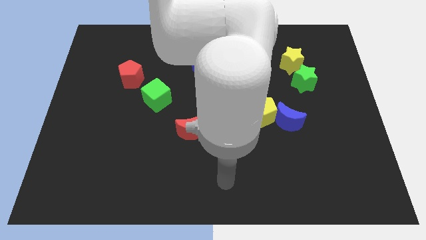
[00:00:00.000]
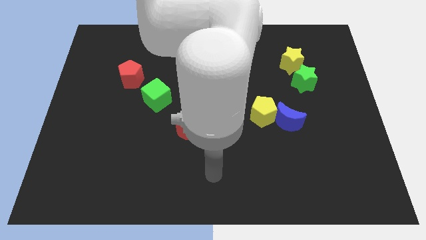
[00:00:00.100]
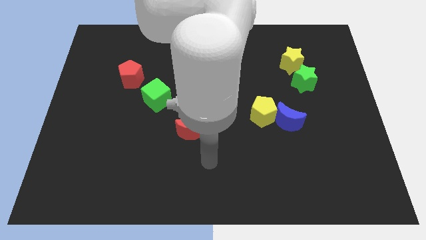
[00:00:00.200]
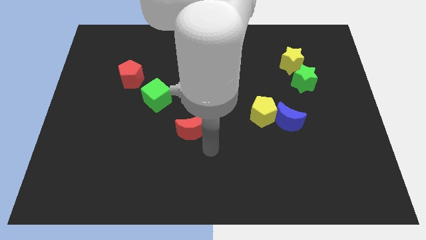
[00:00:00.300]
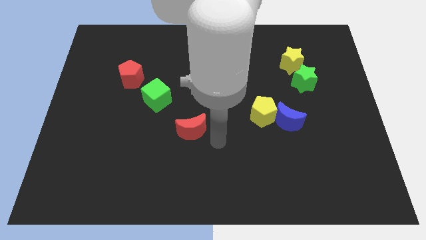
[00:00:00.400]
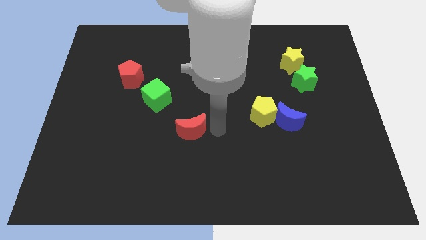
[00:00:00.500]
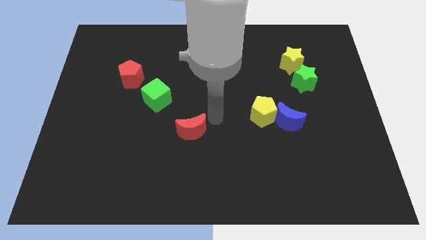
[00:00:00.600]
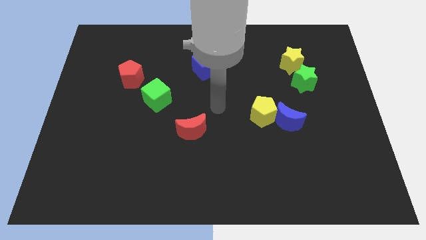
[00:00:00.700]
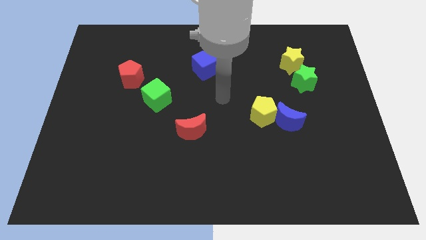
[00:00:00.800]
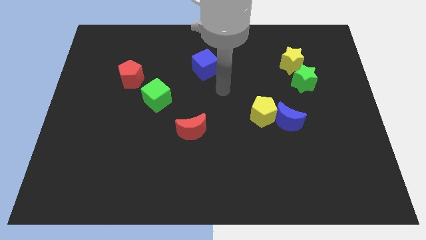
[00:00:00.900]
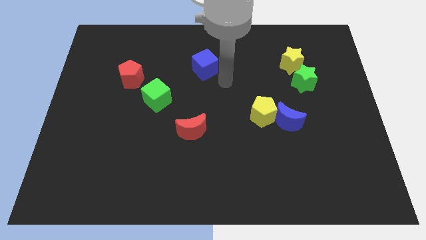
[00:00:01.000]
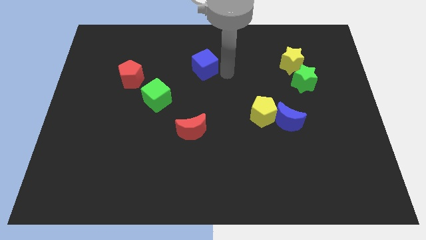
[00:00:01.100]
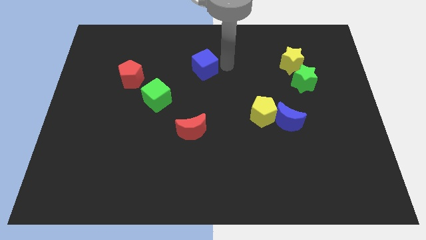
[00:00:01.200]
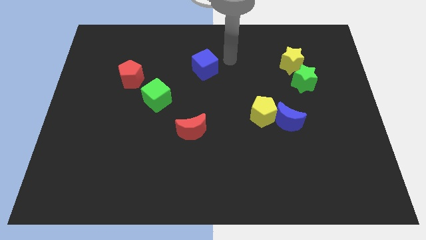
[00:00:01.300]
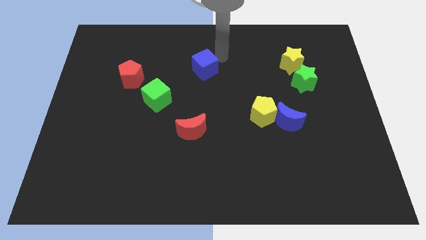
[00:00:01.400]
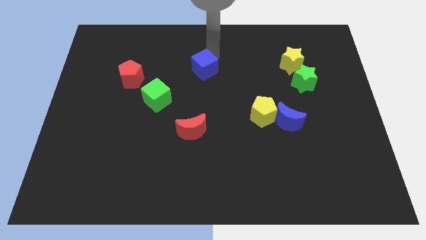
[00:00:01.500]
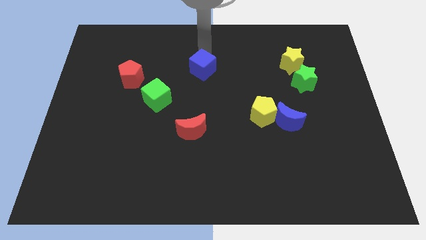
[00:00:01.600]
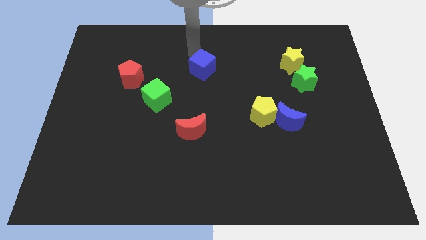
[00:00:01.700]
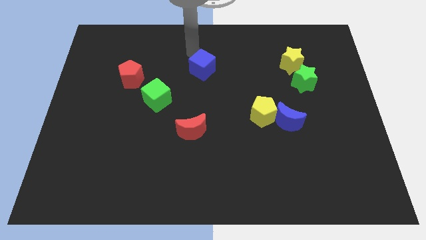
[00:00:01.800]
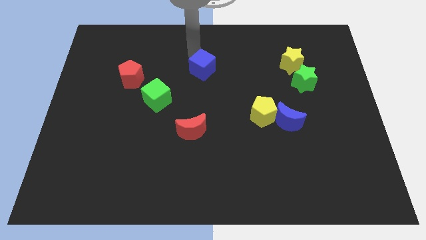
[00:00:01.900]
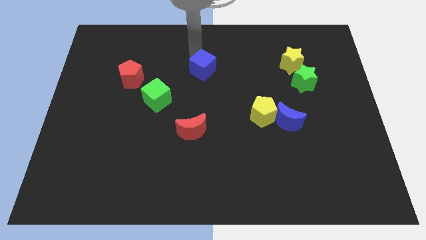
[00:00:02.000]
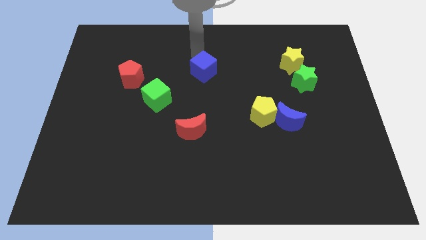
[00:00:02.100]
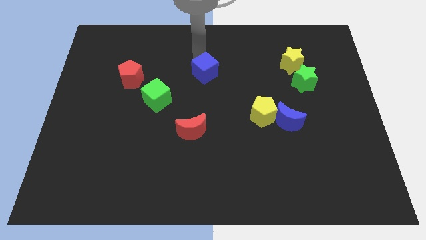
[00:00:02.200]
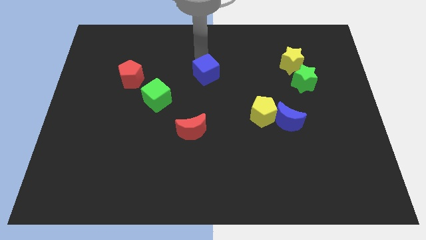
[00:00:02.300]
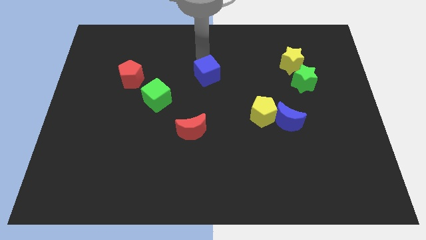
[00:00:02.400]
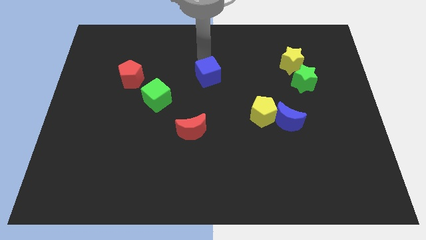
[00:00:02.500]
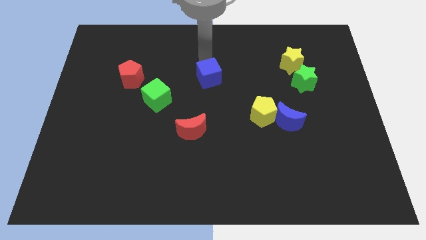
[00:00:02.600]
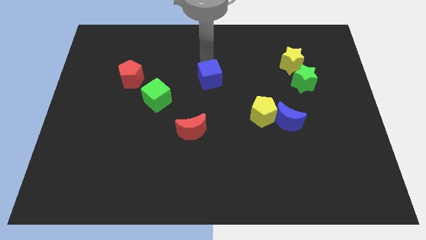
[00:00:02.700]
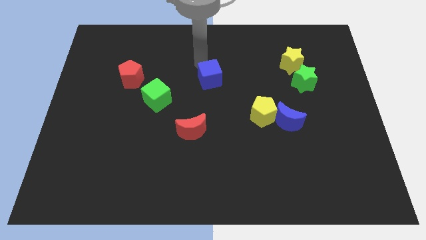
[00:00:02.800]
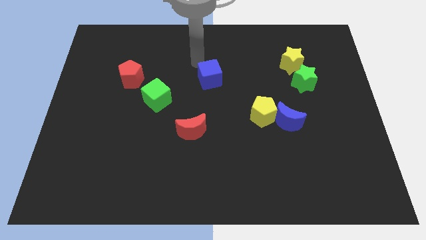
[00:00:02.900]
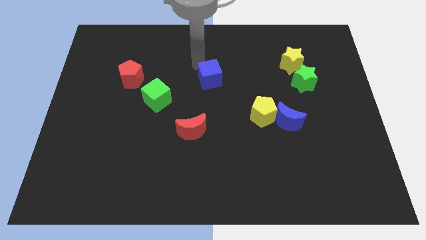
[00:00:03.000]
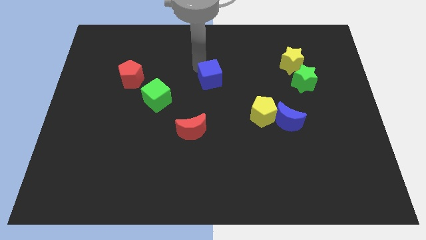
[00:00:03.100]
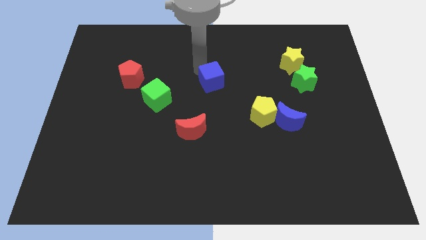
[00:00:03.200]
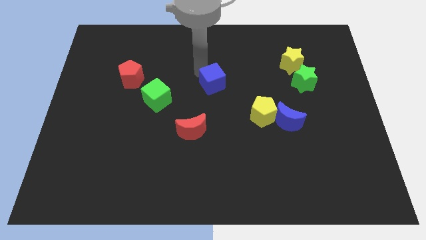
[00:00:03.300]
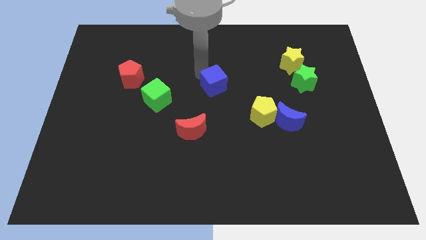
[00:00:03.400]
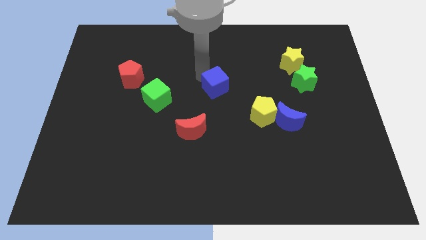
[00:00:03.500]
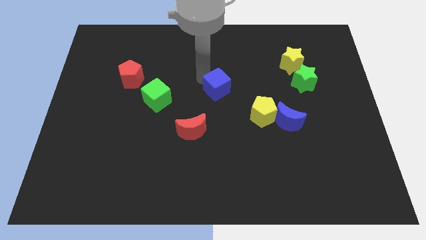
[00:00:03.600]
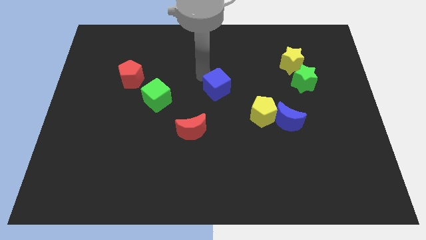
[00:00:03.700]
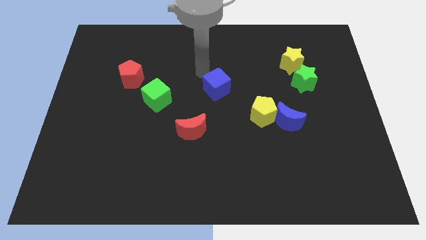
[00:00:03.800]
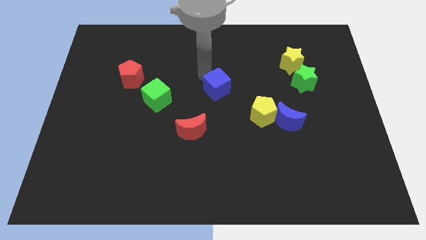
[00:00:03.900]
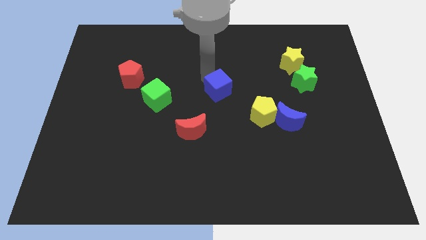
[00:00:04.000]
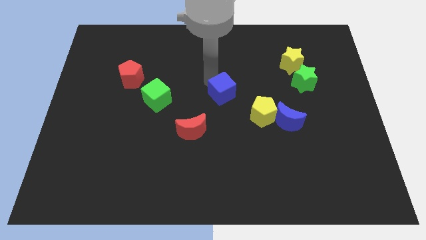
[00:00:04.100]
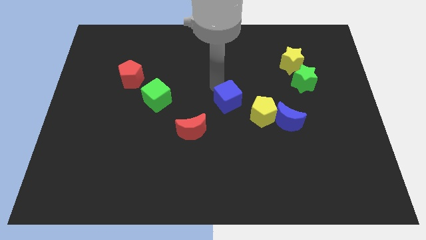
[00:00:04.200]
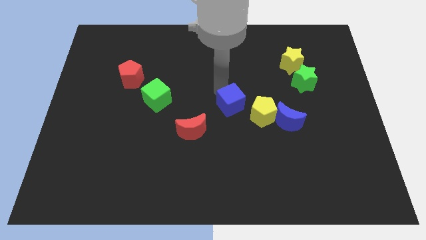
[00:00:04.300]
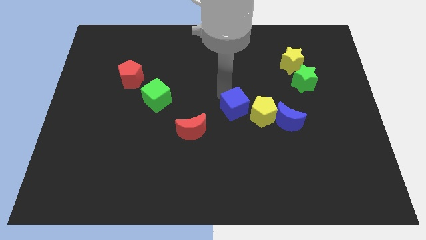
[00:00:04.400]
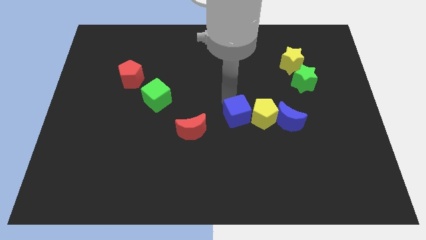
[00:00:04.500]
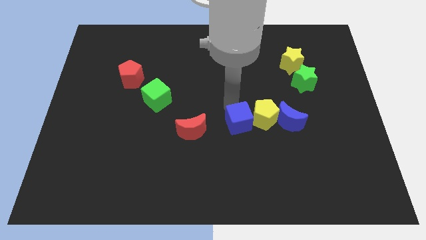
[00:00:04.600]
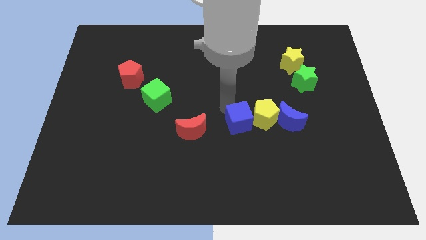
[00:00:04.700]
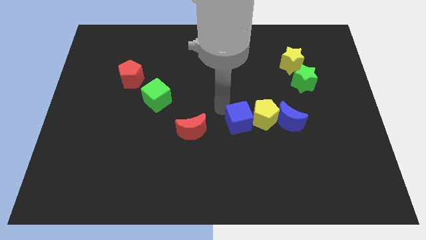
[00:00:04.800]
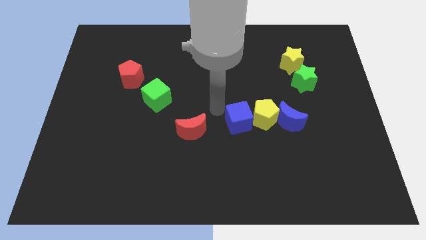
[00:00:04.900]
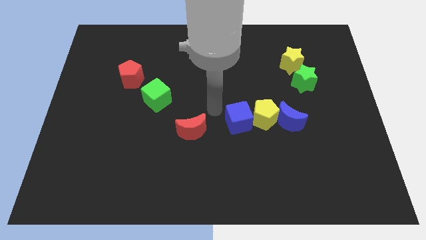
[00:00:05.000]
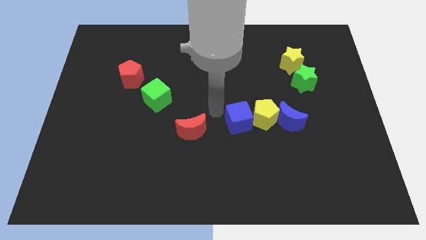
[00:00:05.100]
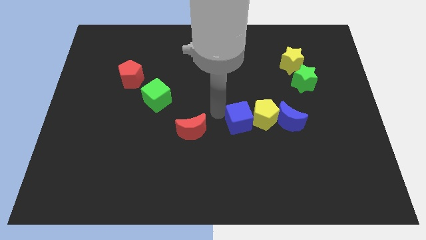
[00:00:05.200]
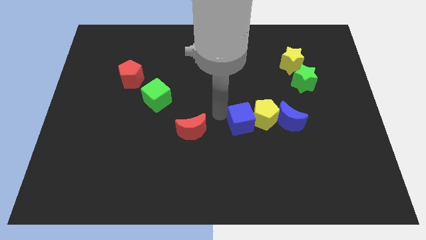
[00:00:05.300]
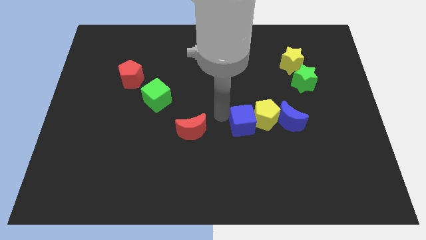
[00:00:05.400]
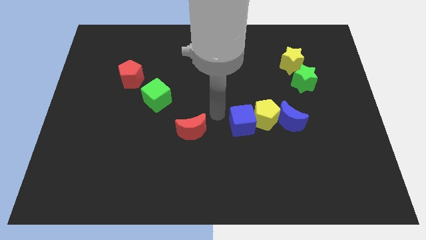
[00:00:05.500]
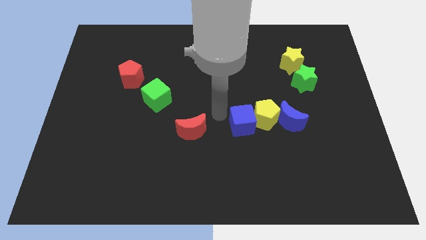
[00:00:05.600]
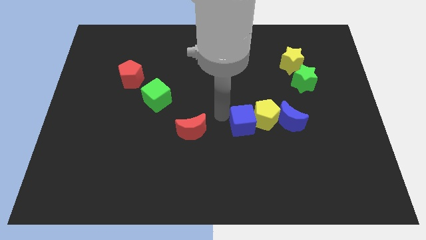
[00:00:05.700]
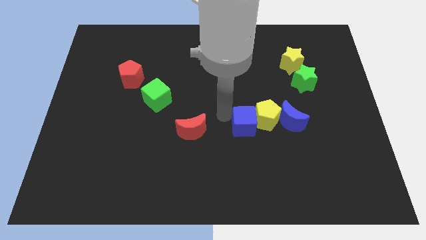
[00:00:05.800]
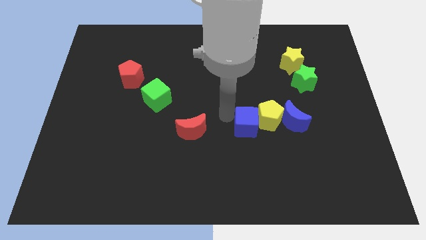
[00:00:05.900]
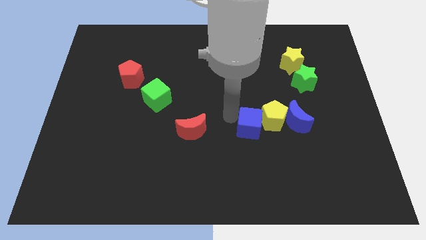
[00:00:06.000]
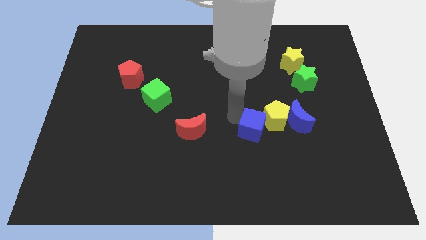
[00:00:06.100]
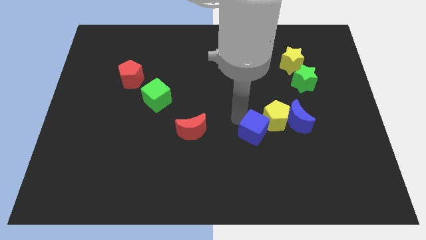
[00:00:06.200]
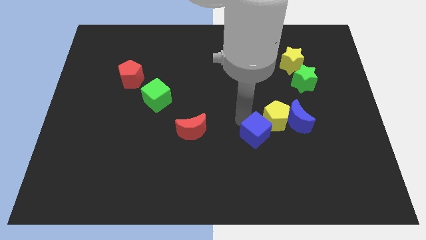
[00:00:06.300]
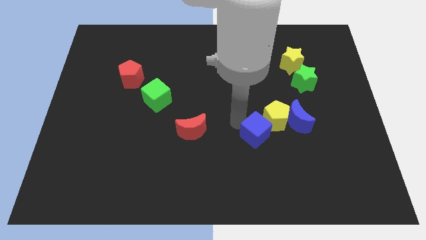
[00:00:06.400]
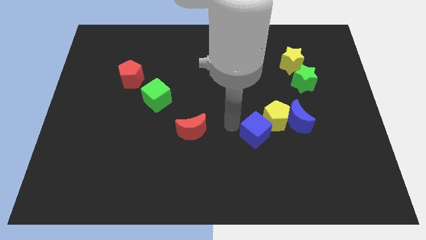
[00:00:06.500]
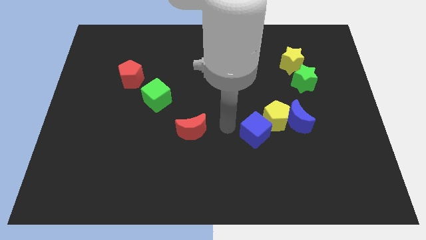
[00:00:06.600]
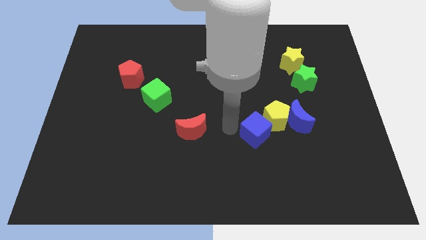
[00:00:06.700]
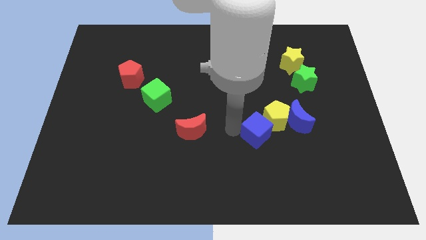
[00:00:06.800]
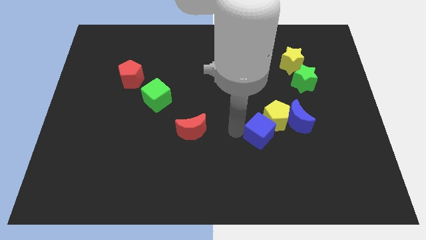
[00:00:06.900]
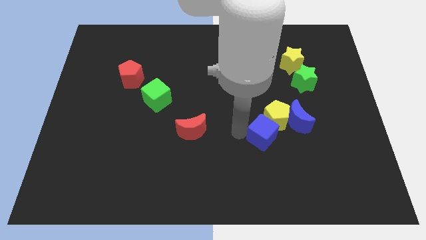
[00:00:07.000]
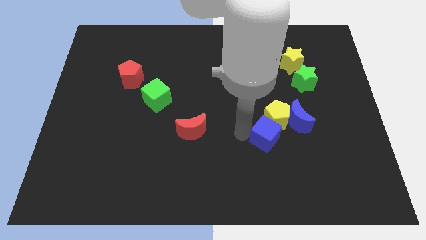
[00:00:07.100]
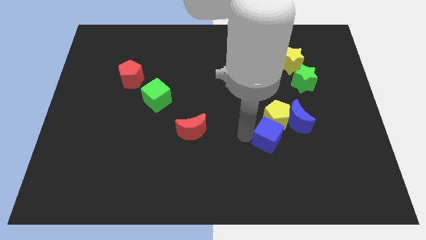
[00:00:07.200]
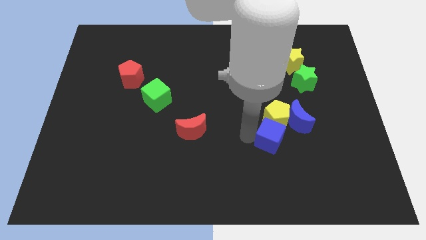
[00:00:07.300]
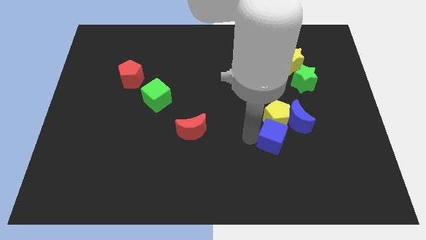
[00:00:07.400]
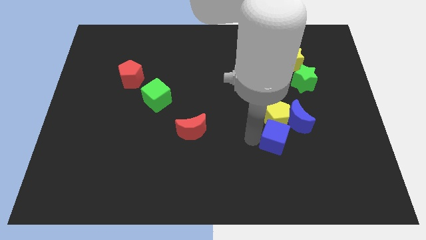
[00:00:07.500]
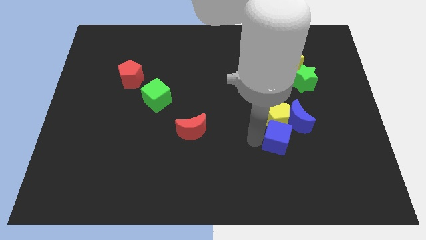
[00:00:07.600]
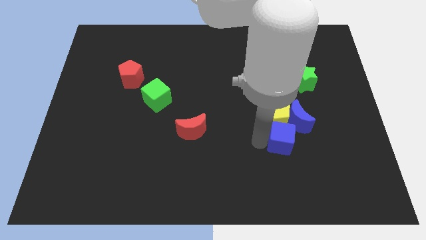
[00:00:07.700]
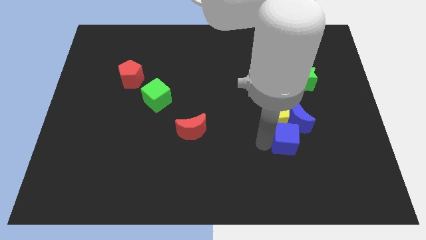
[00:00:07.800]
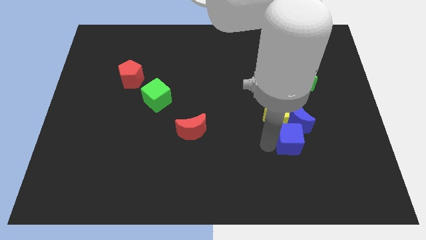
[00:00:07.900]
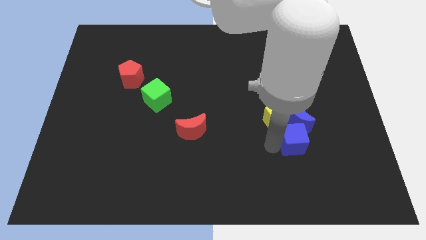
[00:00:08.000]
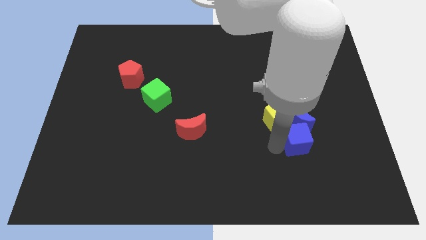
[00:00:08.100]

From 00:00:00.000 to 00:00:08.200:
put the blue cube to the bottom right side of the blue moon
